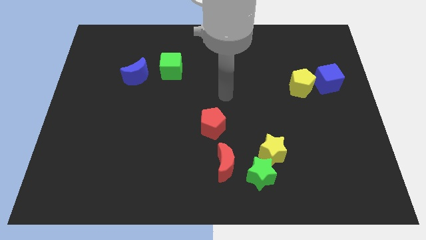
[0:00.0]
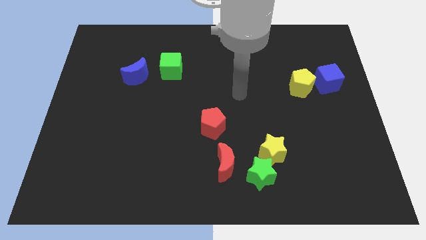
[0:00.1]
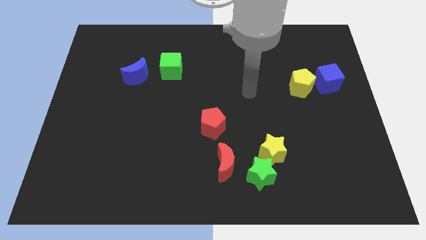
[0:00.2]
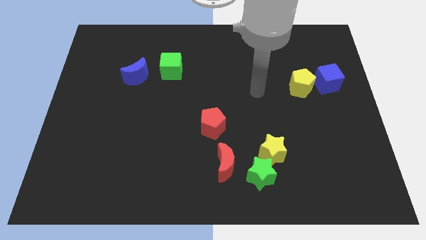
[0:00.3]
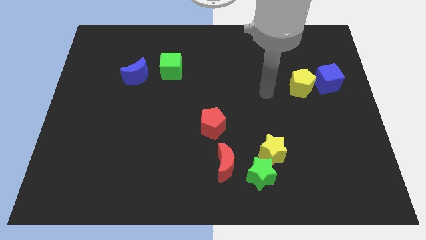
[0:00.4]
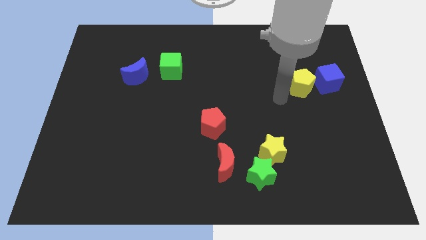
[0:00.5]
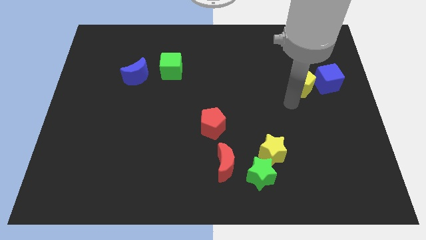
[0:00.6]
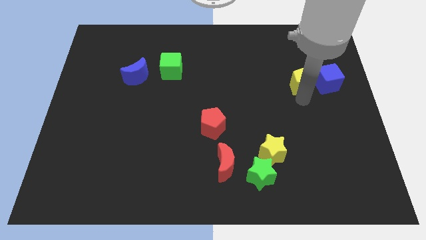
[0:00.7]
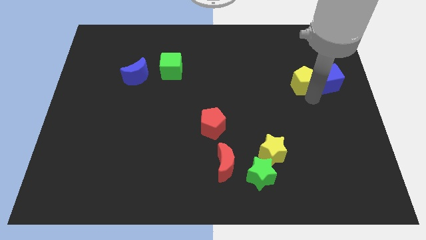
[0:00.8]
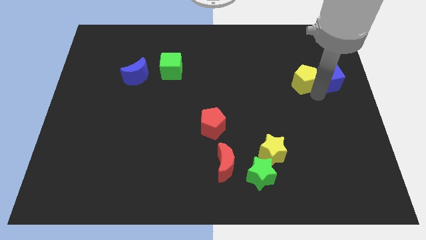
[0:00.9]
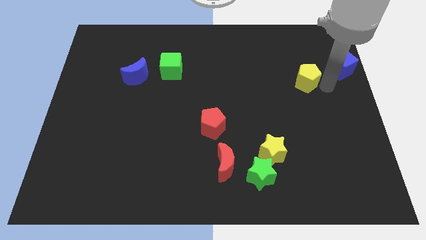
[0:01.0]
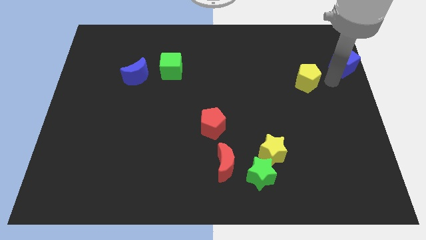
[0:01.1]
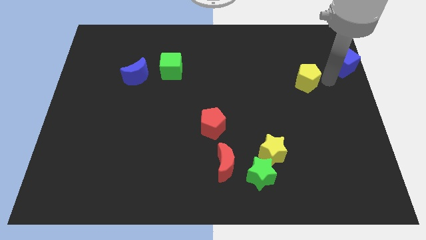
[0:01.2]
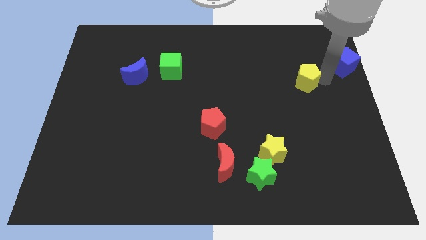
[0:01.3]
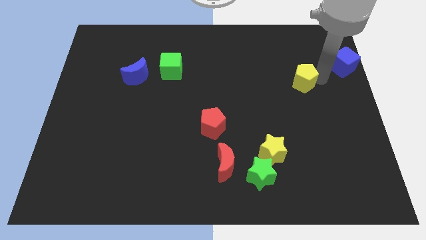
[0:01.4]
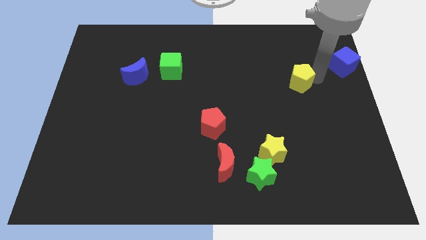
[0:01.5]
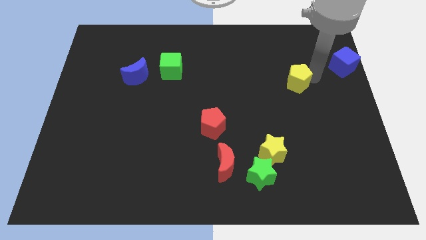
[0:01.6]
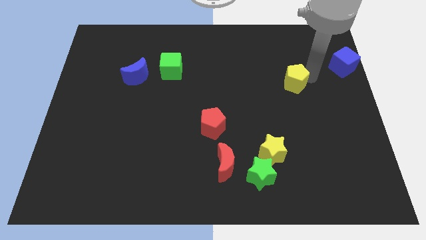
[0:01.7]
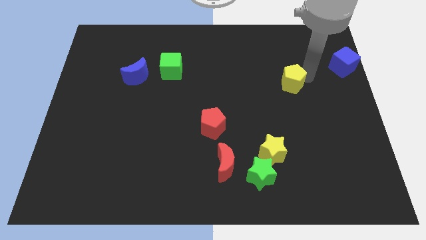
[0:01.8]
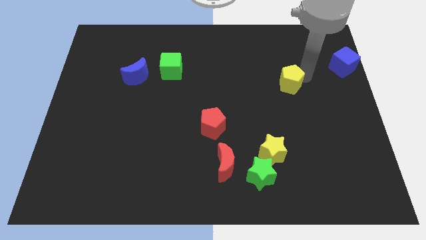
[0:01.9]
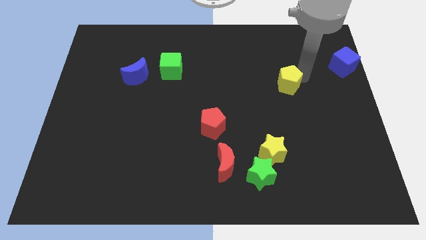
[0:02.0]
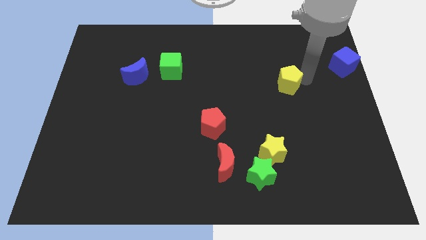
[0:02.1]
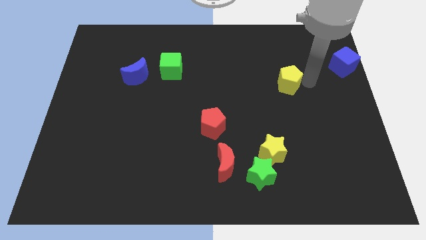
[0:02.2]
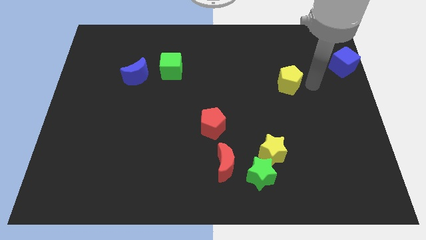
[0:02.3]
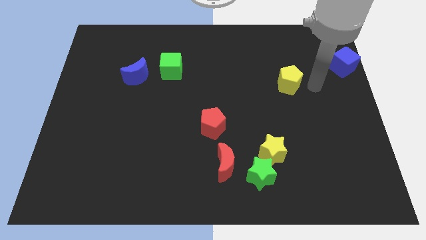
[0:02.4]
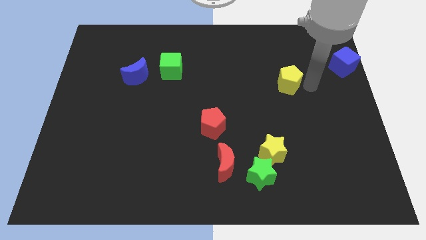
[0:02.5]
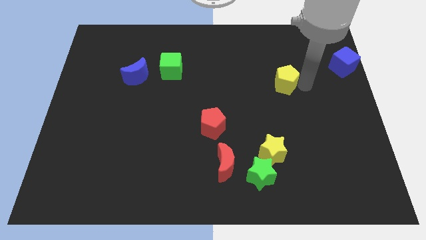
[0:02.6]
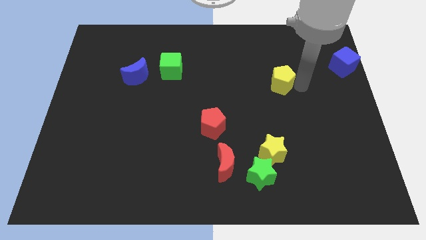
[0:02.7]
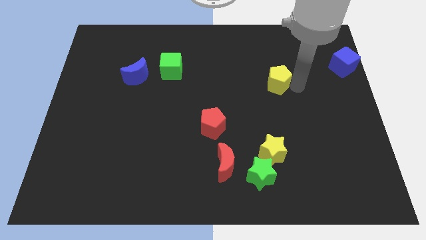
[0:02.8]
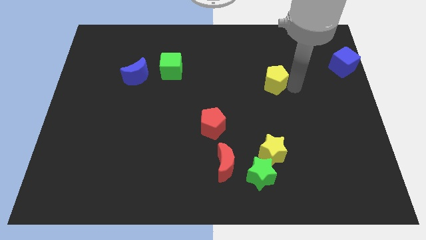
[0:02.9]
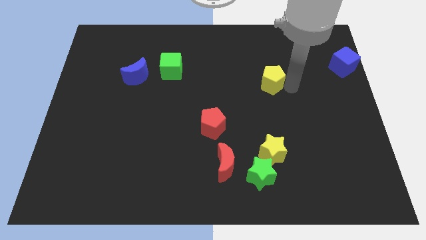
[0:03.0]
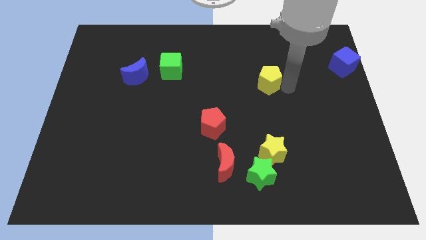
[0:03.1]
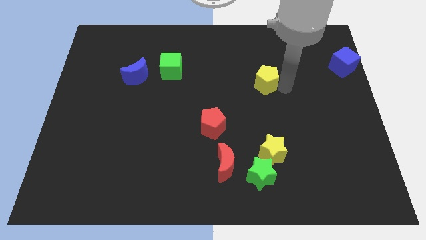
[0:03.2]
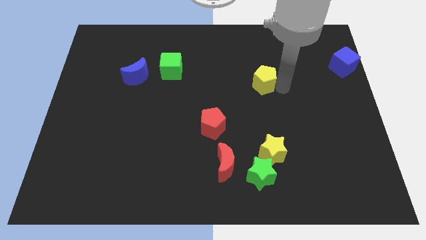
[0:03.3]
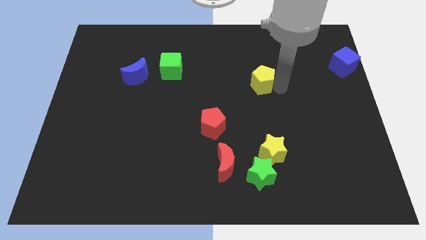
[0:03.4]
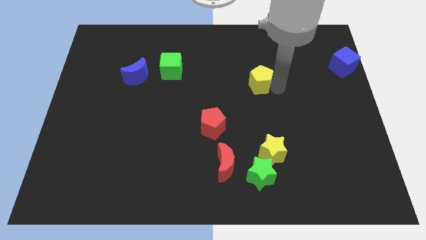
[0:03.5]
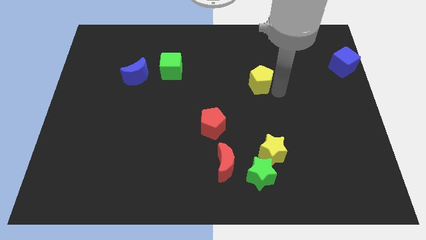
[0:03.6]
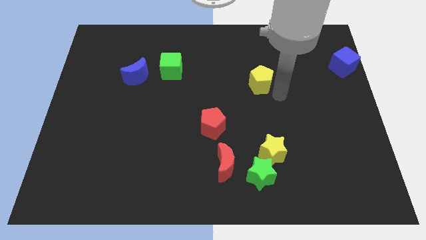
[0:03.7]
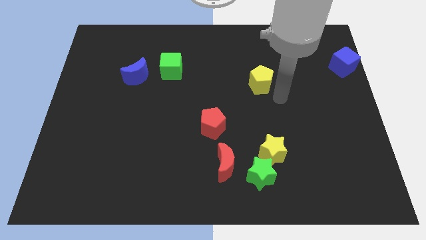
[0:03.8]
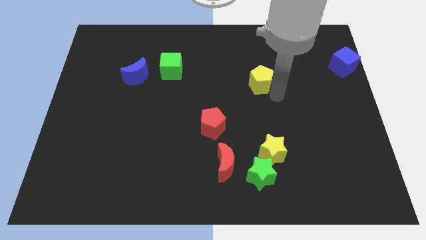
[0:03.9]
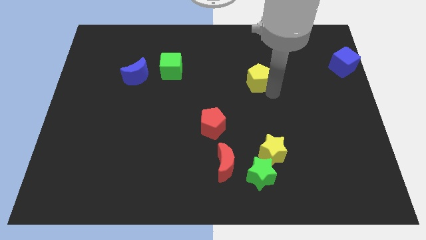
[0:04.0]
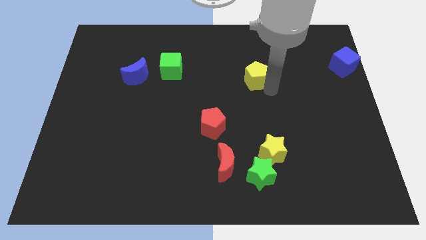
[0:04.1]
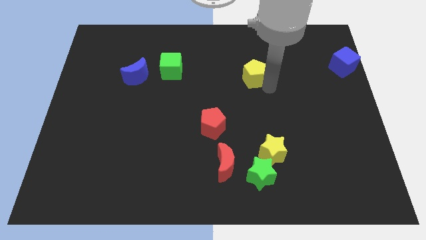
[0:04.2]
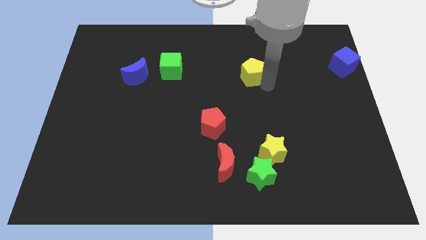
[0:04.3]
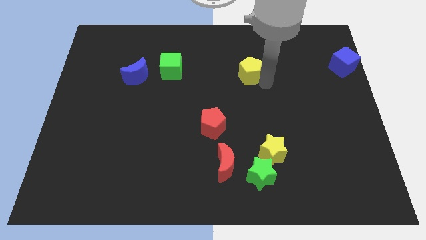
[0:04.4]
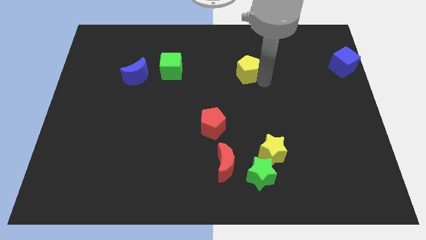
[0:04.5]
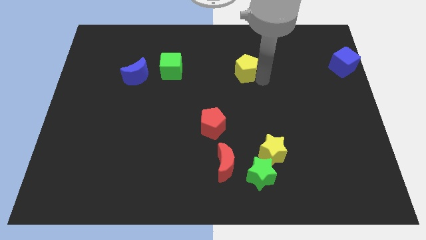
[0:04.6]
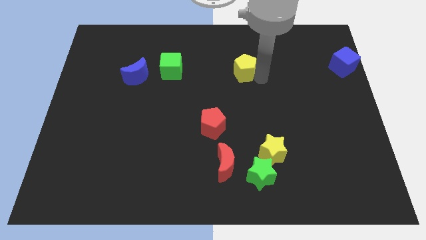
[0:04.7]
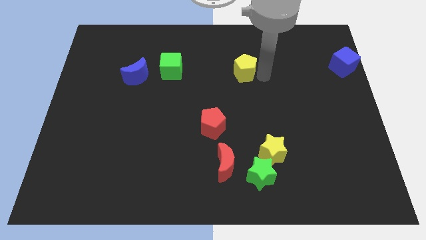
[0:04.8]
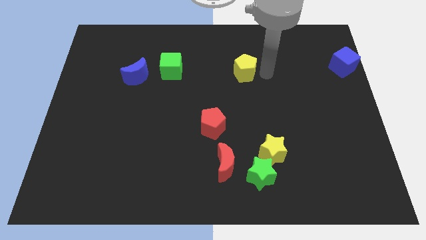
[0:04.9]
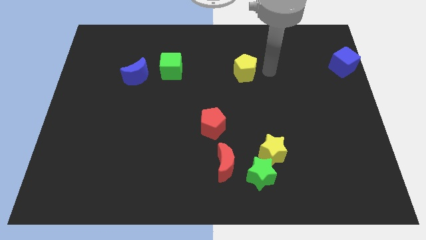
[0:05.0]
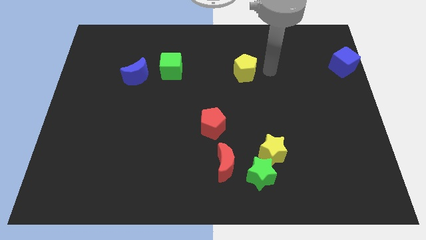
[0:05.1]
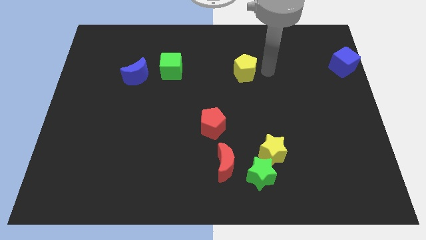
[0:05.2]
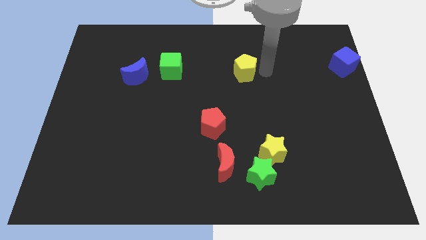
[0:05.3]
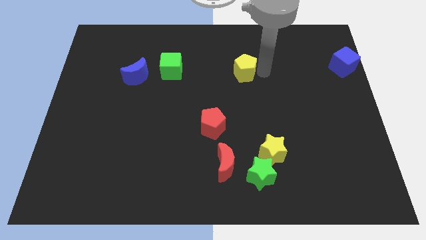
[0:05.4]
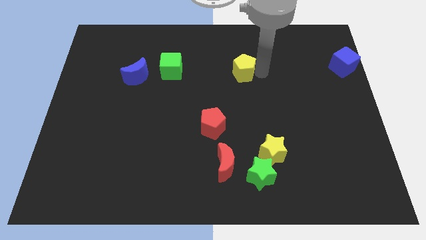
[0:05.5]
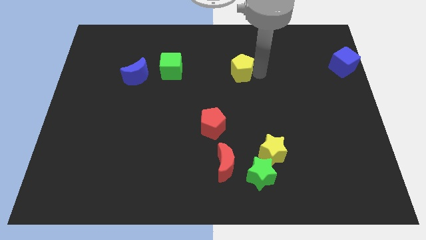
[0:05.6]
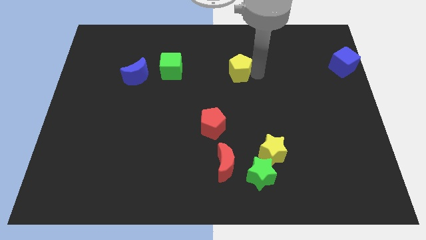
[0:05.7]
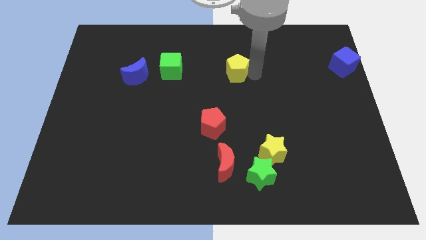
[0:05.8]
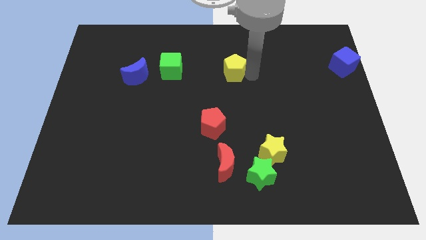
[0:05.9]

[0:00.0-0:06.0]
move the yellow pentagon just right of the green cube

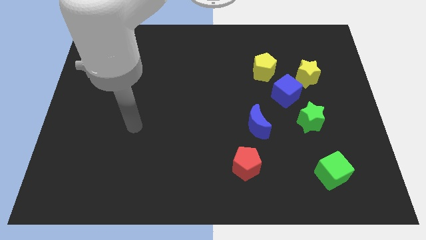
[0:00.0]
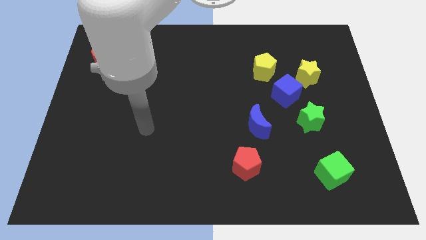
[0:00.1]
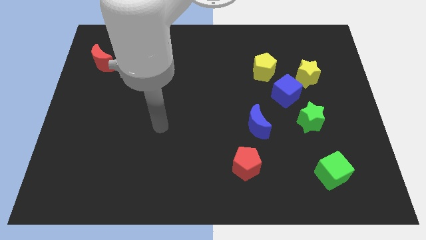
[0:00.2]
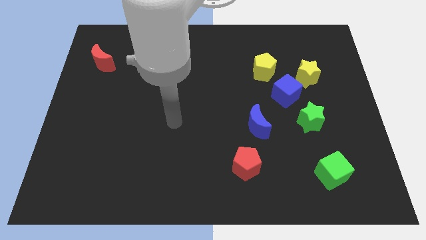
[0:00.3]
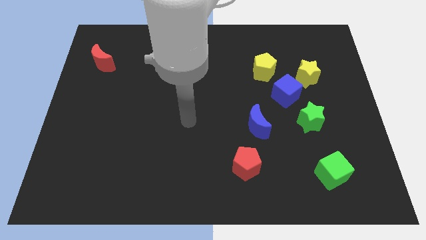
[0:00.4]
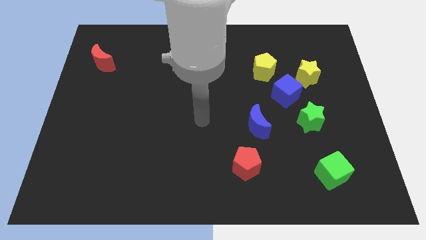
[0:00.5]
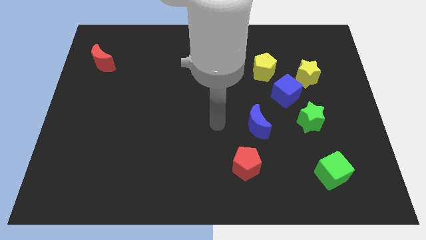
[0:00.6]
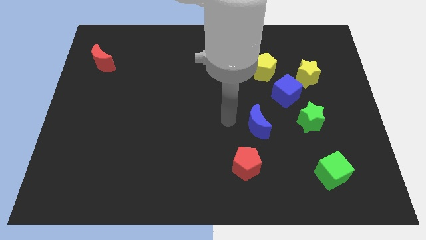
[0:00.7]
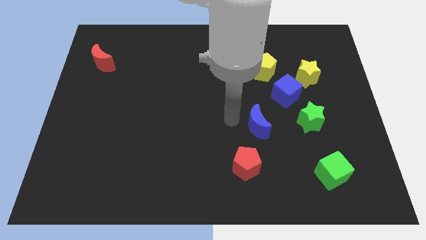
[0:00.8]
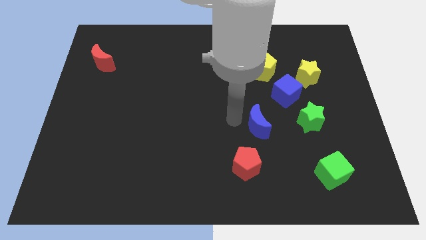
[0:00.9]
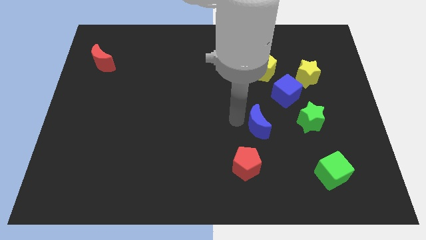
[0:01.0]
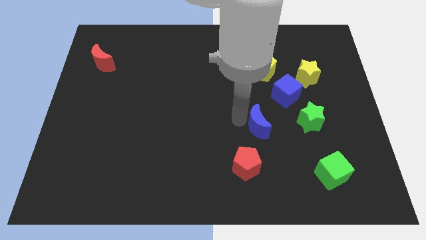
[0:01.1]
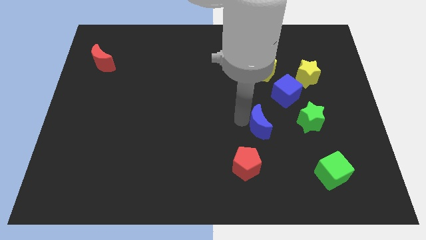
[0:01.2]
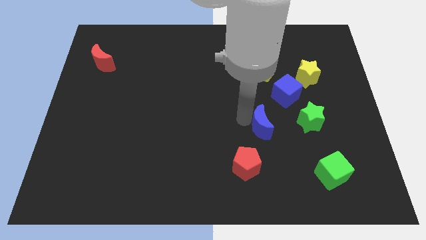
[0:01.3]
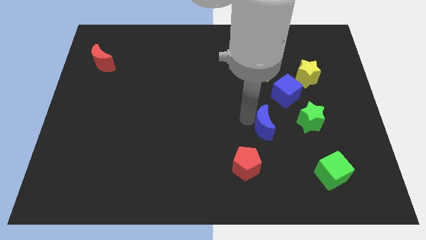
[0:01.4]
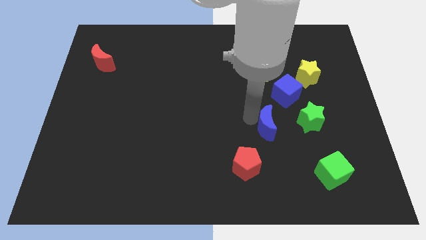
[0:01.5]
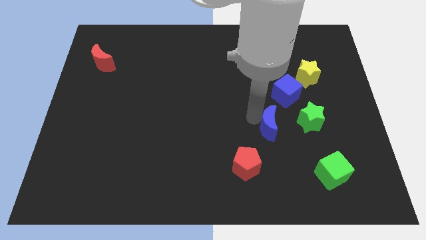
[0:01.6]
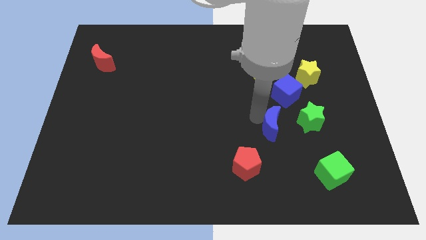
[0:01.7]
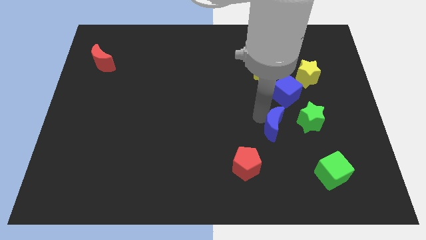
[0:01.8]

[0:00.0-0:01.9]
push the blue moon to the bottom left side of the green star

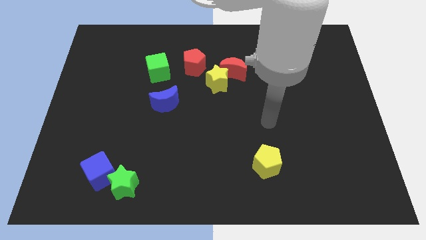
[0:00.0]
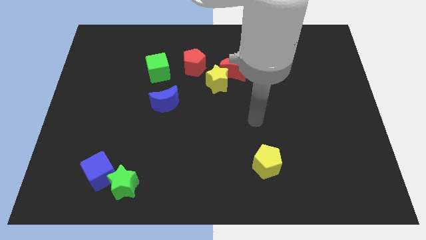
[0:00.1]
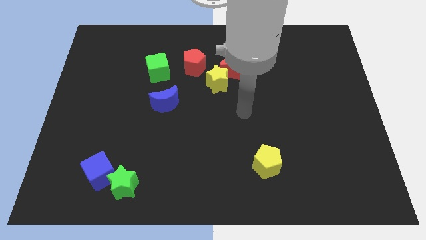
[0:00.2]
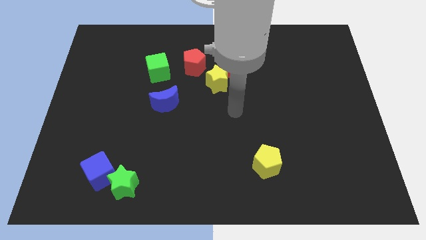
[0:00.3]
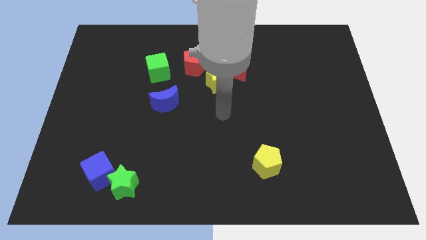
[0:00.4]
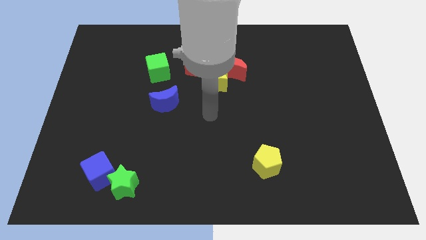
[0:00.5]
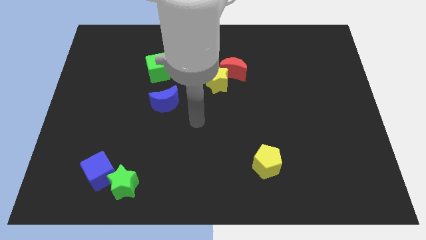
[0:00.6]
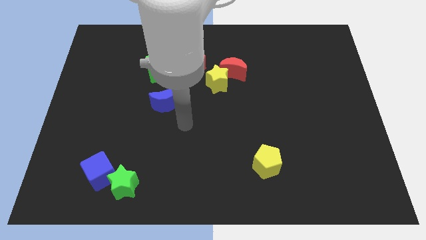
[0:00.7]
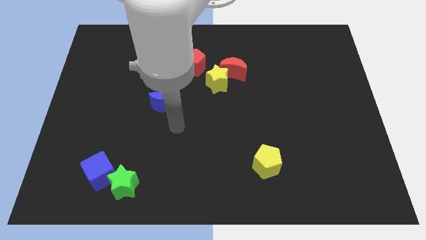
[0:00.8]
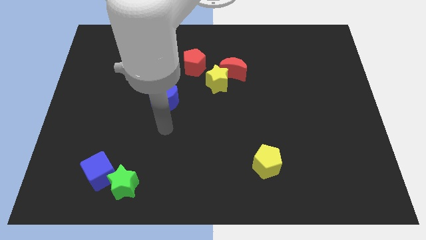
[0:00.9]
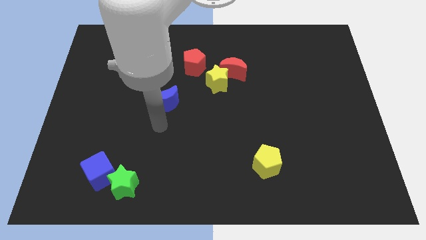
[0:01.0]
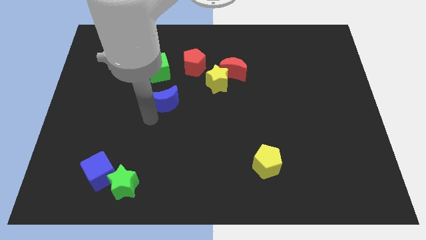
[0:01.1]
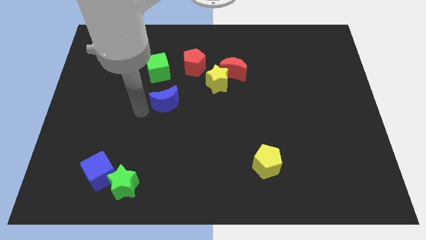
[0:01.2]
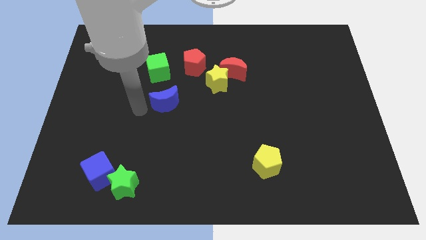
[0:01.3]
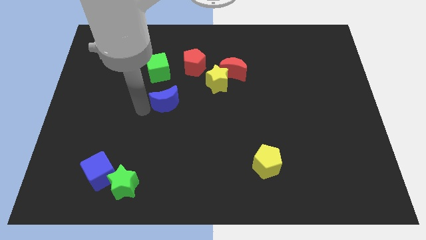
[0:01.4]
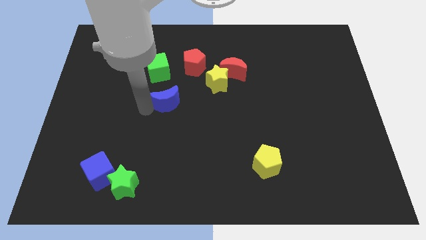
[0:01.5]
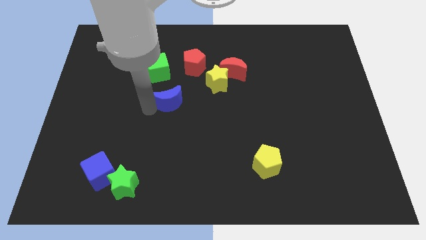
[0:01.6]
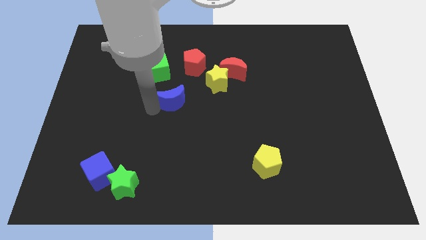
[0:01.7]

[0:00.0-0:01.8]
put the blue moon to the bottom of the red pentagon
